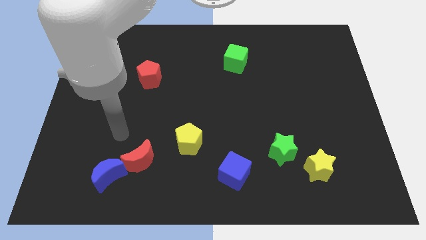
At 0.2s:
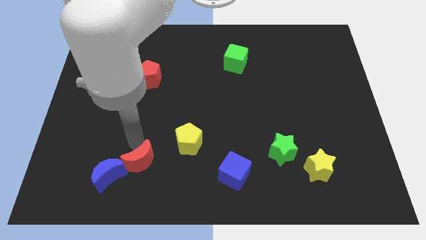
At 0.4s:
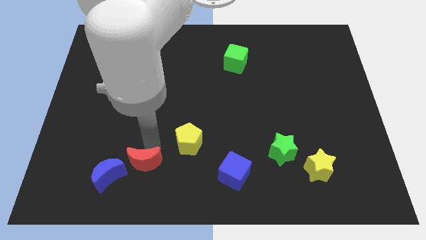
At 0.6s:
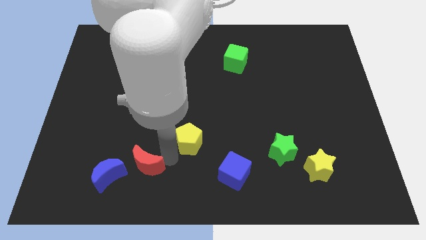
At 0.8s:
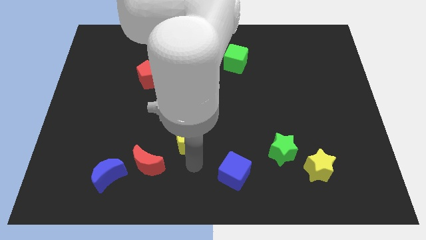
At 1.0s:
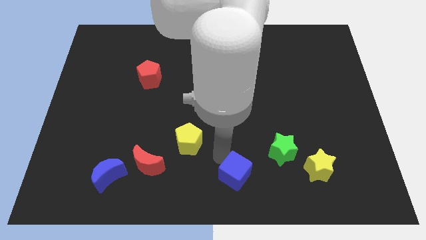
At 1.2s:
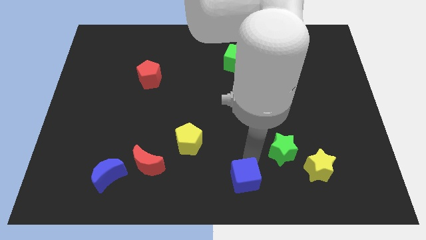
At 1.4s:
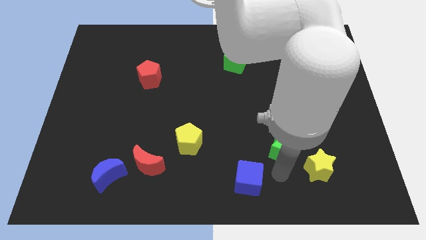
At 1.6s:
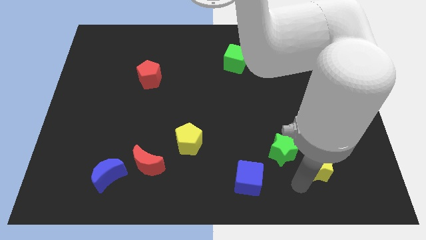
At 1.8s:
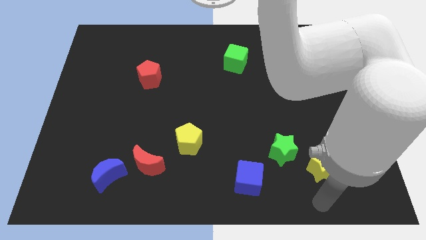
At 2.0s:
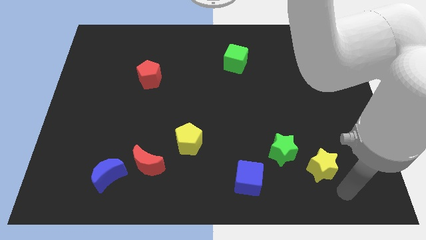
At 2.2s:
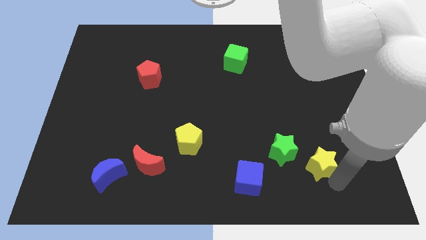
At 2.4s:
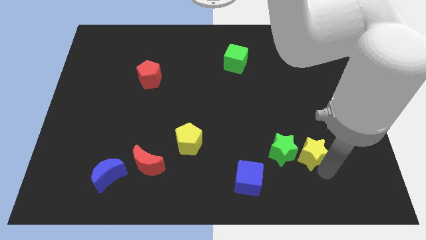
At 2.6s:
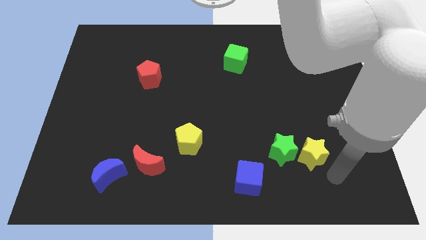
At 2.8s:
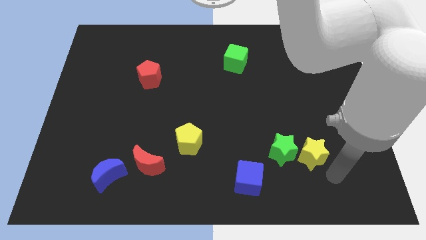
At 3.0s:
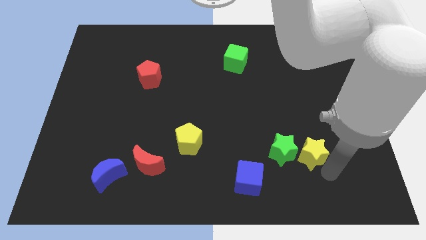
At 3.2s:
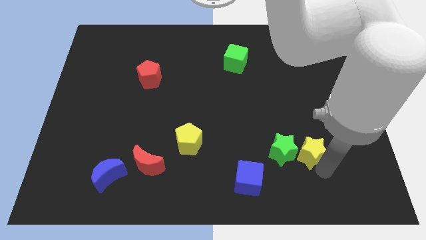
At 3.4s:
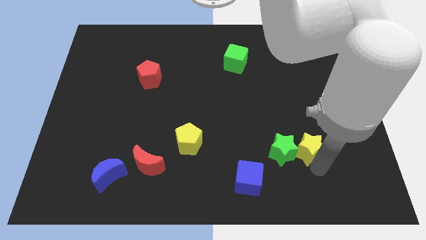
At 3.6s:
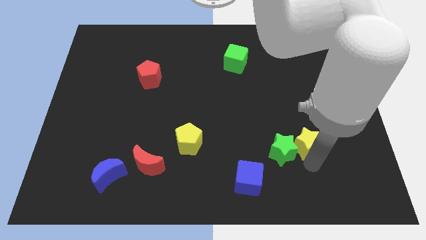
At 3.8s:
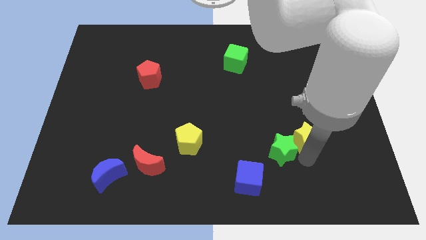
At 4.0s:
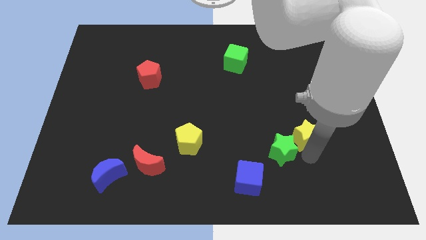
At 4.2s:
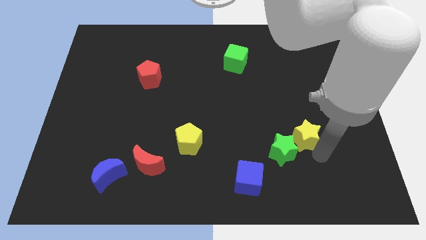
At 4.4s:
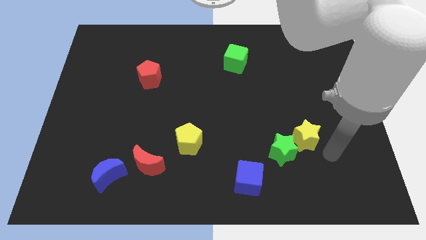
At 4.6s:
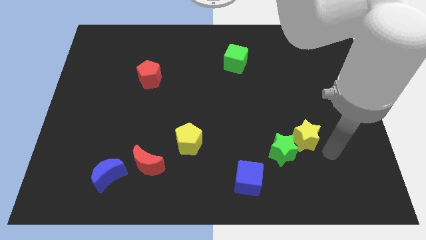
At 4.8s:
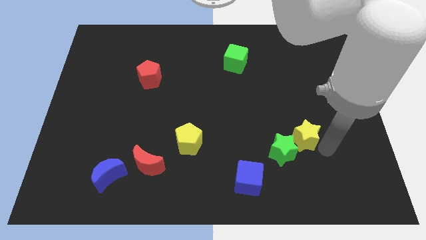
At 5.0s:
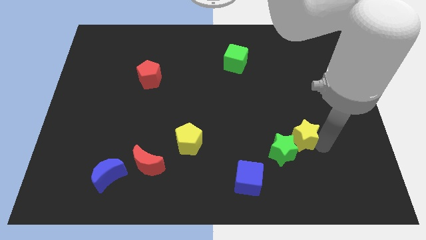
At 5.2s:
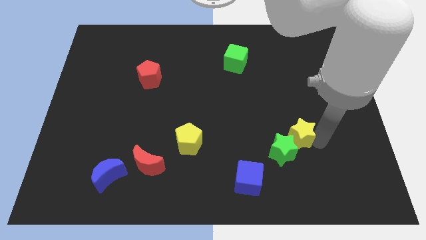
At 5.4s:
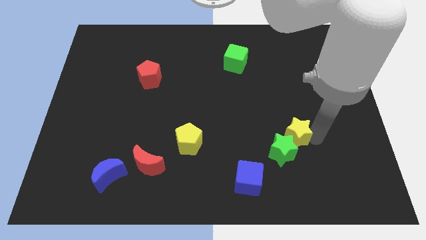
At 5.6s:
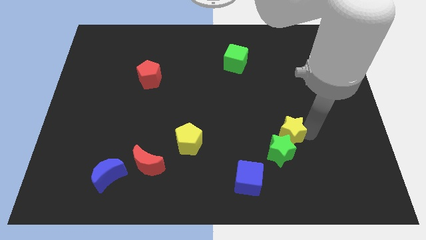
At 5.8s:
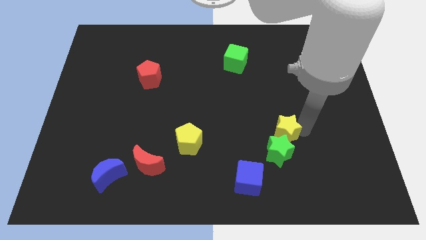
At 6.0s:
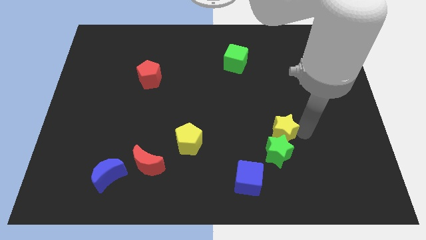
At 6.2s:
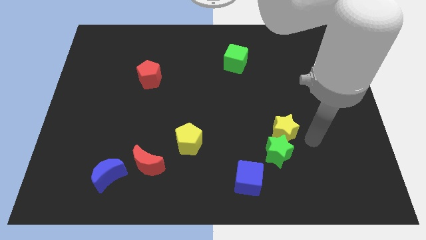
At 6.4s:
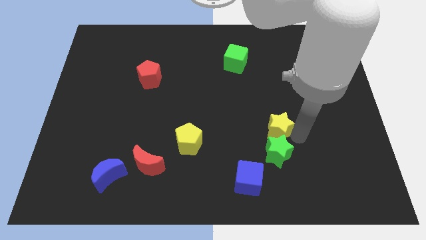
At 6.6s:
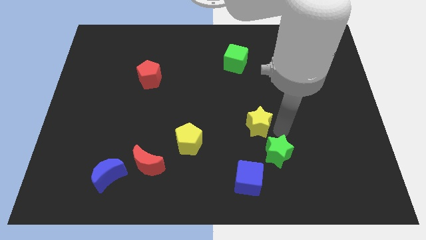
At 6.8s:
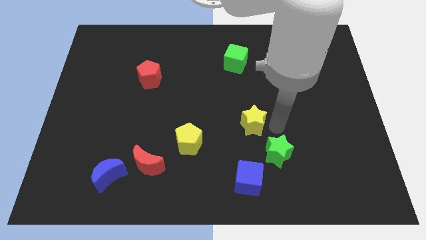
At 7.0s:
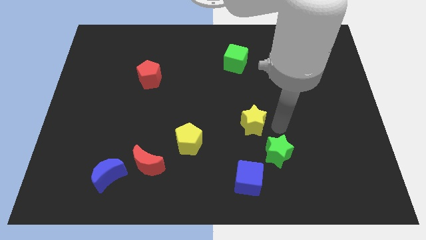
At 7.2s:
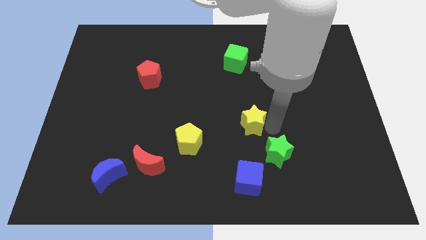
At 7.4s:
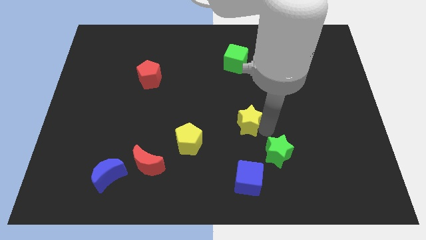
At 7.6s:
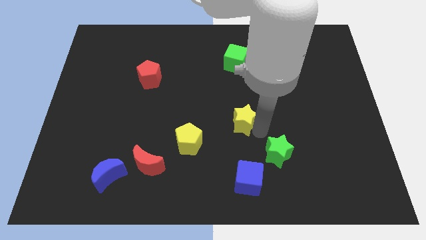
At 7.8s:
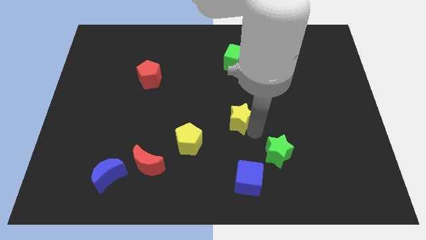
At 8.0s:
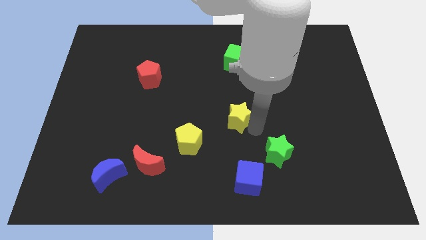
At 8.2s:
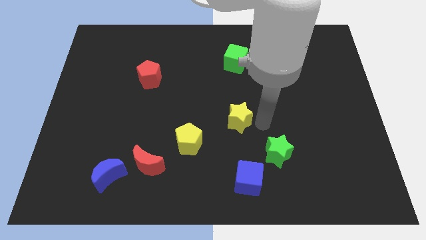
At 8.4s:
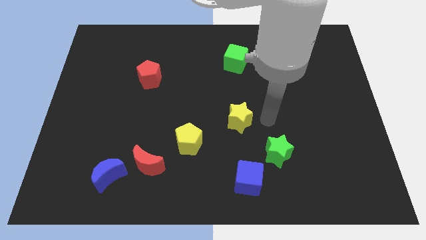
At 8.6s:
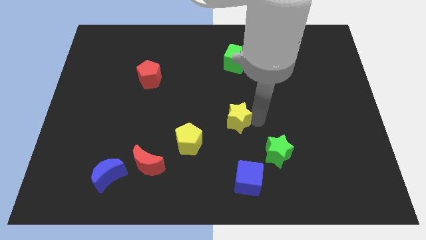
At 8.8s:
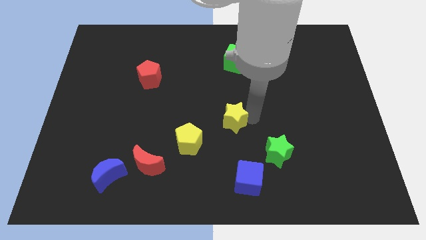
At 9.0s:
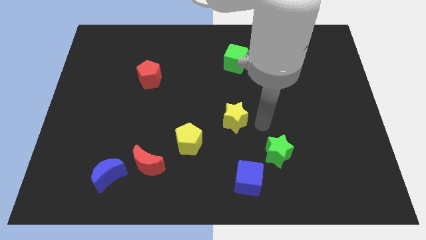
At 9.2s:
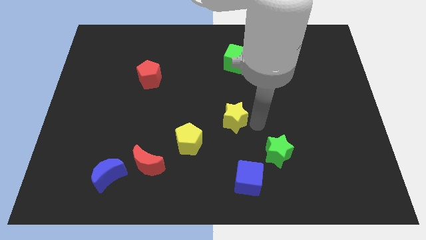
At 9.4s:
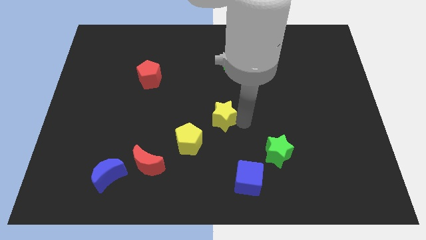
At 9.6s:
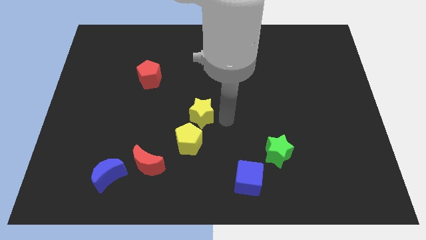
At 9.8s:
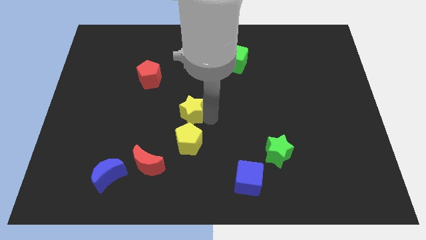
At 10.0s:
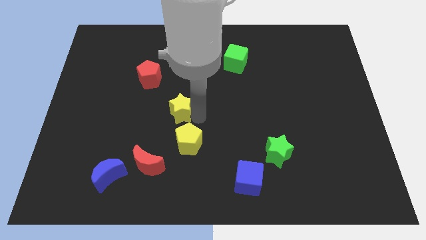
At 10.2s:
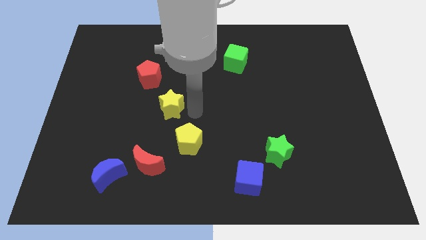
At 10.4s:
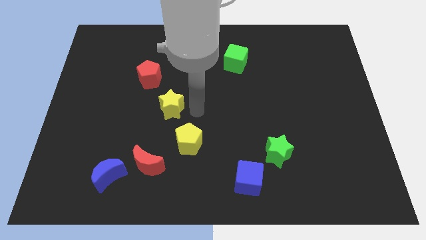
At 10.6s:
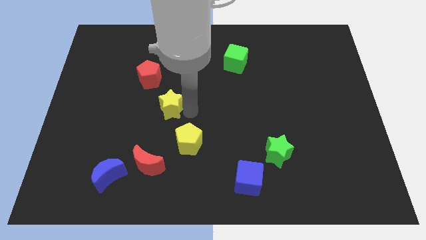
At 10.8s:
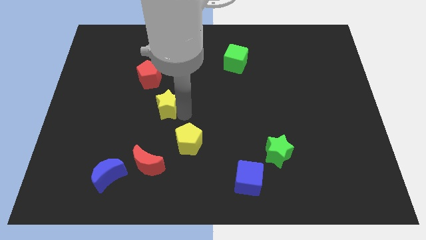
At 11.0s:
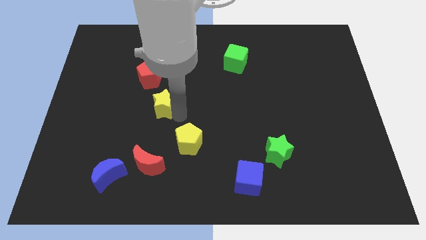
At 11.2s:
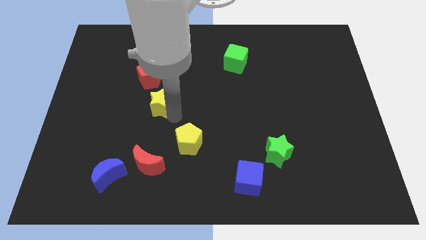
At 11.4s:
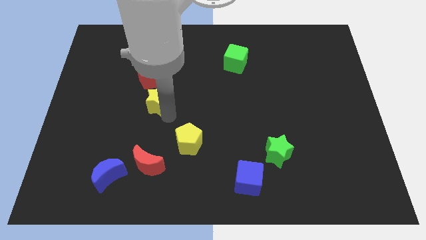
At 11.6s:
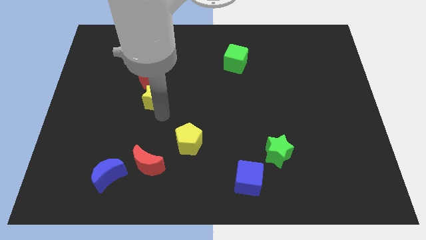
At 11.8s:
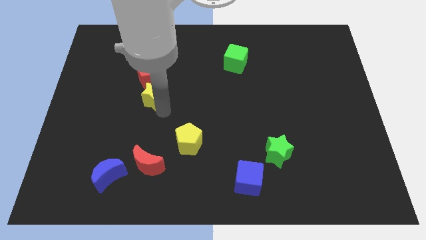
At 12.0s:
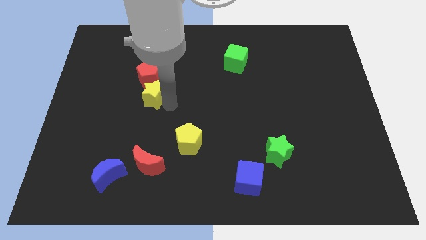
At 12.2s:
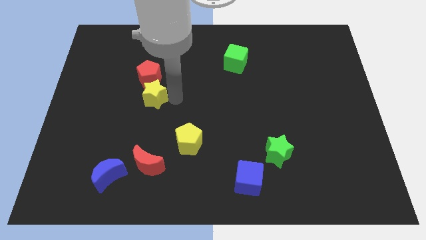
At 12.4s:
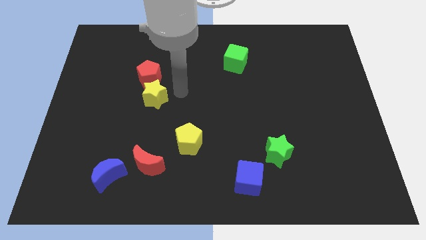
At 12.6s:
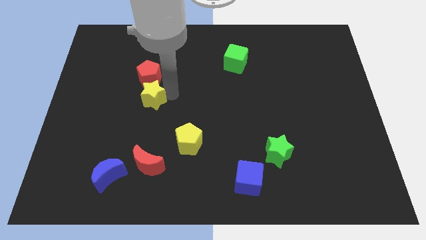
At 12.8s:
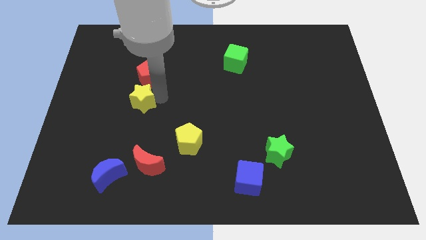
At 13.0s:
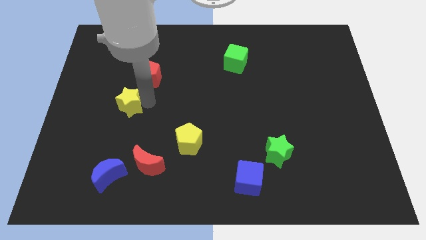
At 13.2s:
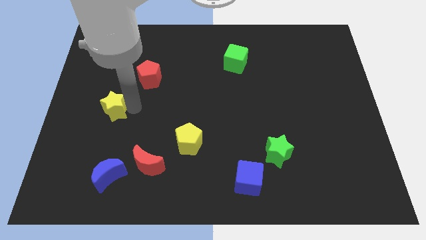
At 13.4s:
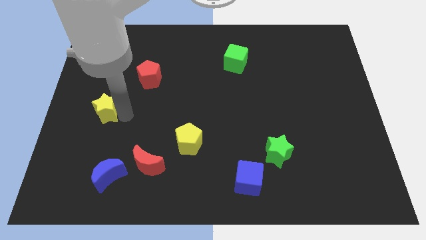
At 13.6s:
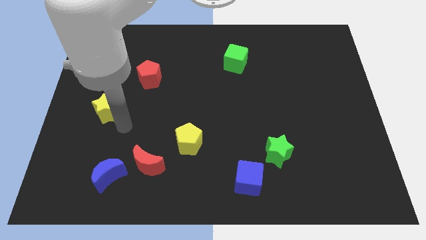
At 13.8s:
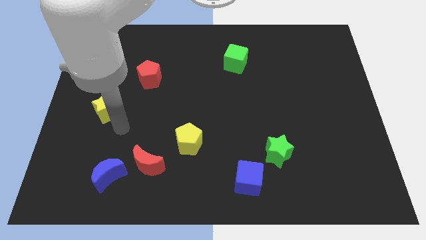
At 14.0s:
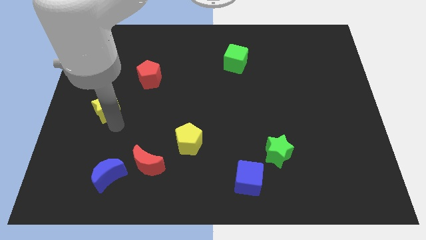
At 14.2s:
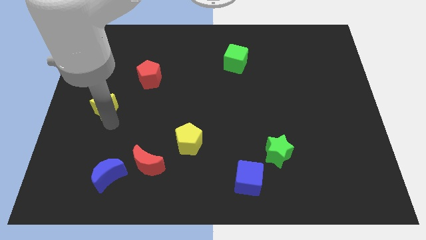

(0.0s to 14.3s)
push the yellow star to the left side of the board

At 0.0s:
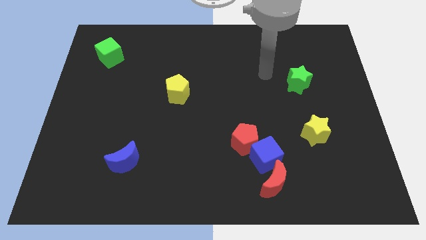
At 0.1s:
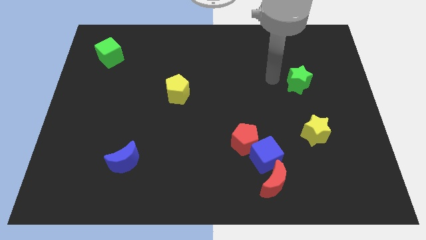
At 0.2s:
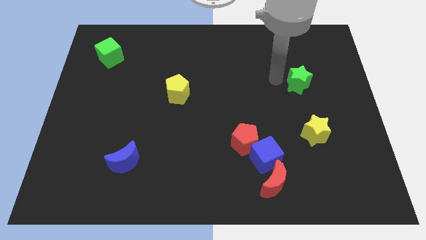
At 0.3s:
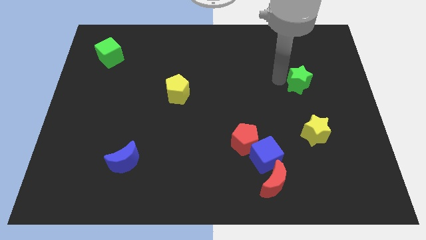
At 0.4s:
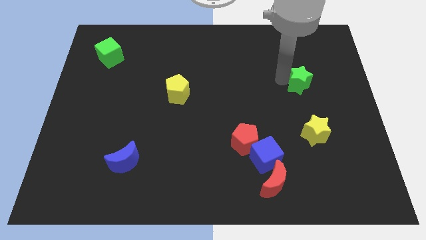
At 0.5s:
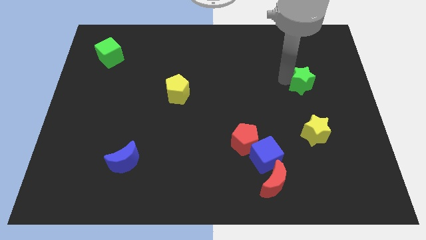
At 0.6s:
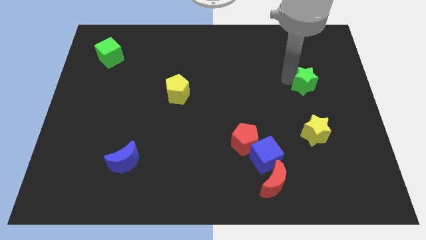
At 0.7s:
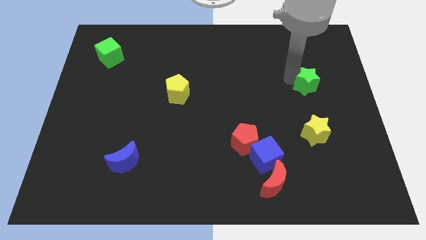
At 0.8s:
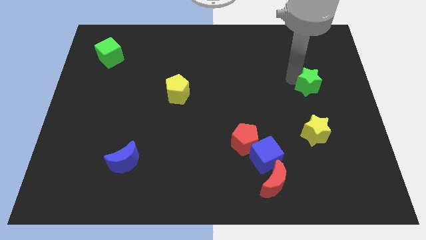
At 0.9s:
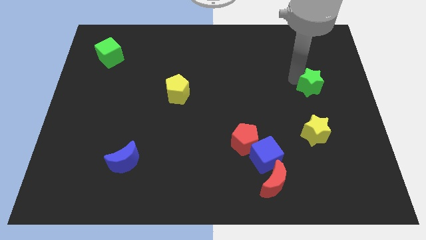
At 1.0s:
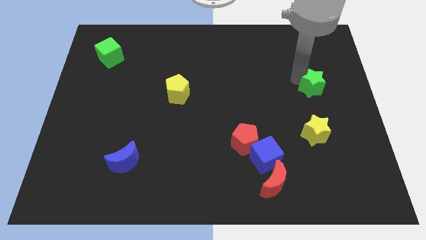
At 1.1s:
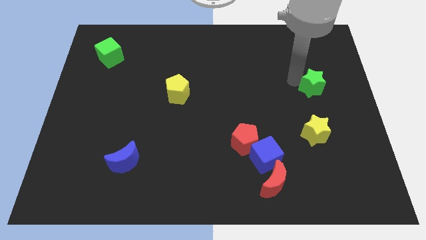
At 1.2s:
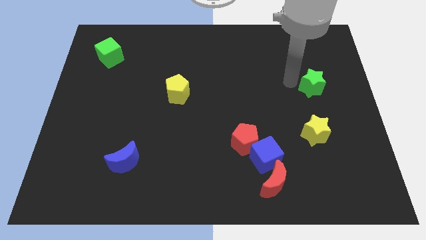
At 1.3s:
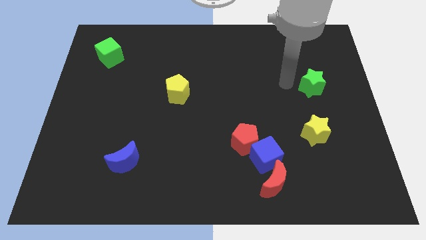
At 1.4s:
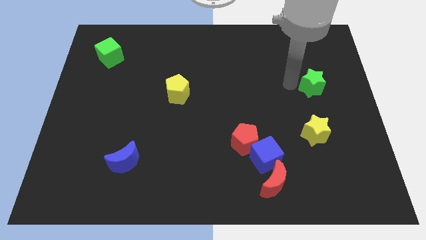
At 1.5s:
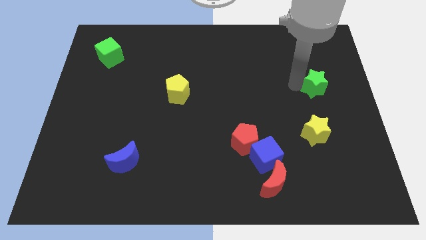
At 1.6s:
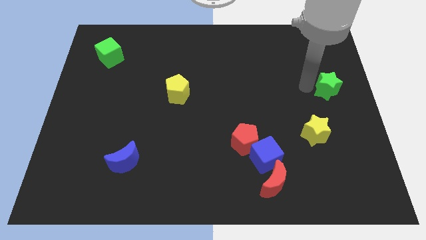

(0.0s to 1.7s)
move the green star to the right side of the board
